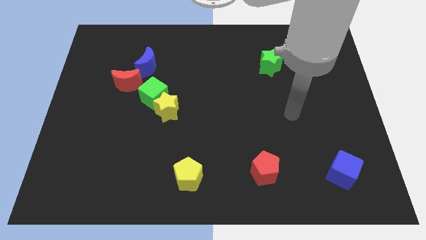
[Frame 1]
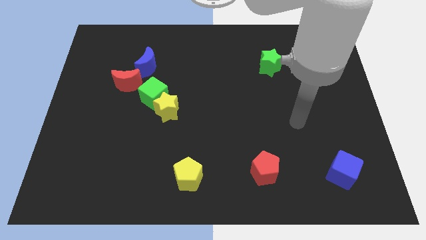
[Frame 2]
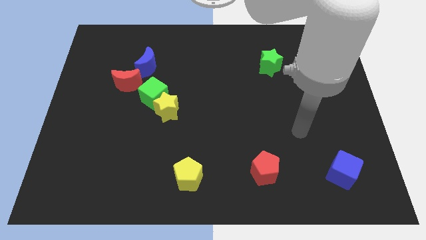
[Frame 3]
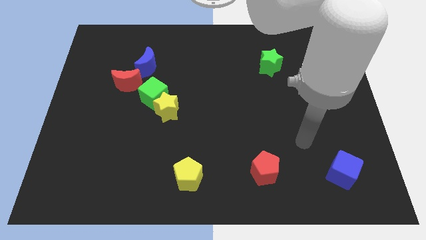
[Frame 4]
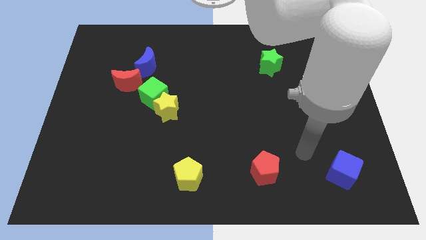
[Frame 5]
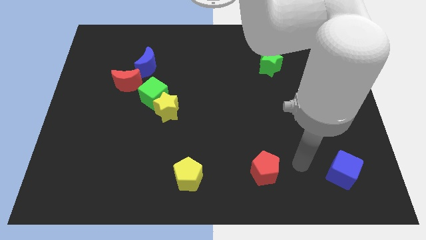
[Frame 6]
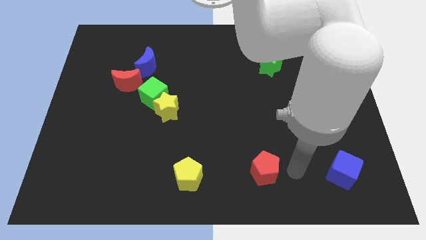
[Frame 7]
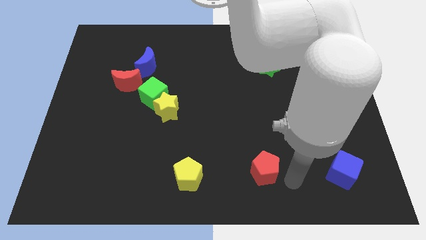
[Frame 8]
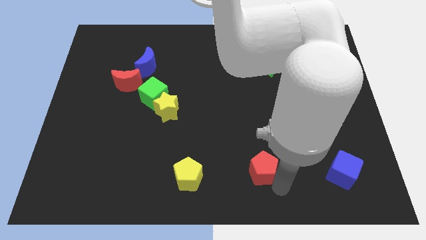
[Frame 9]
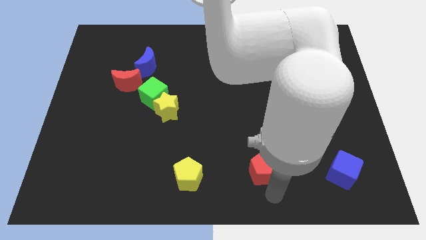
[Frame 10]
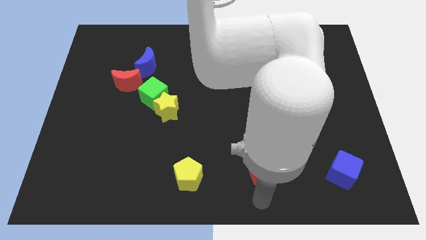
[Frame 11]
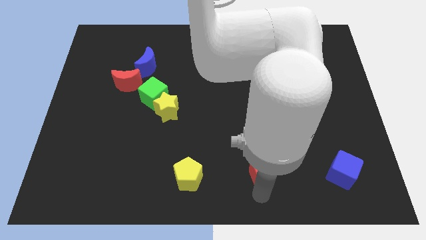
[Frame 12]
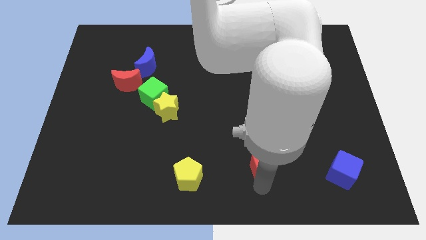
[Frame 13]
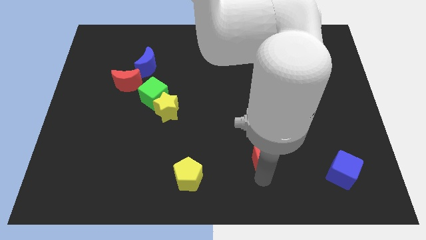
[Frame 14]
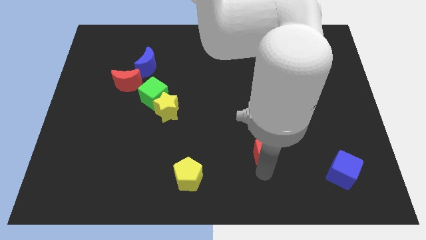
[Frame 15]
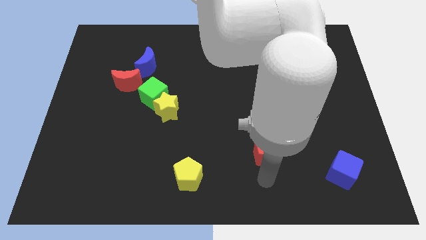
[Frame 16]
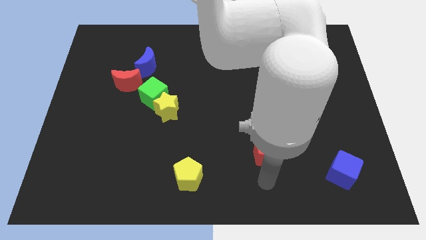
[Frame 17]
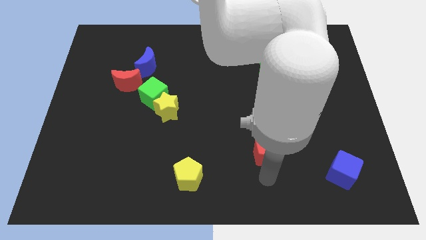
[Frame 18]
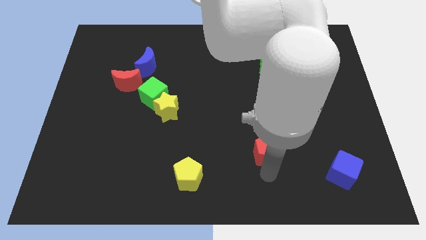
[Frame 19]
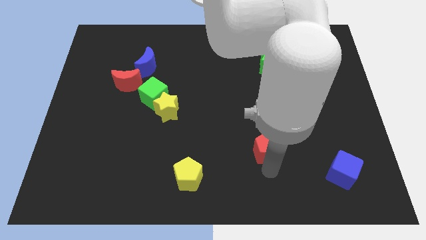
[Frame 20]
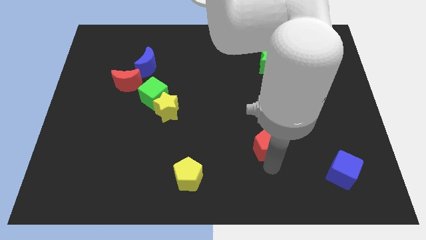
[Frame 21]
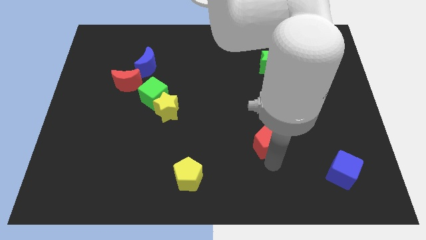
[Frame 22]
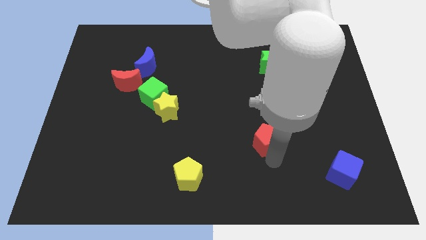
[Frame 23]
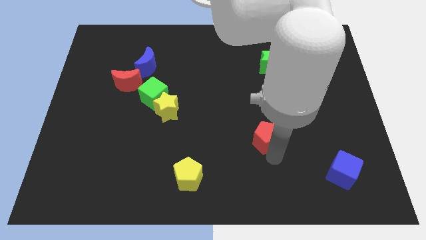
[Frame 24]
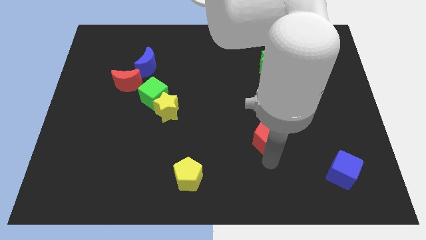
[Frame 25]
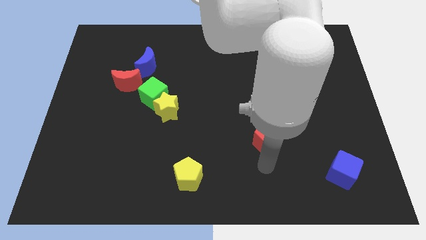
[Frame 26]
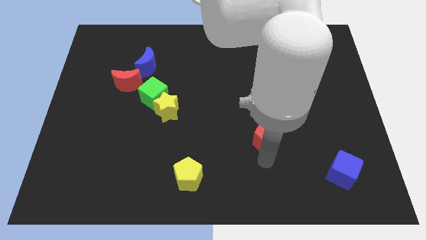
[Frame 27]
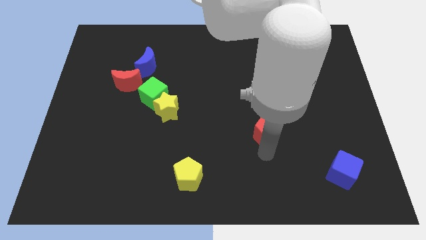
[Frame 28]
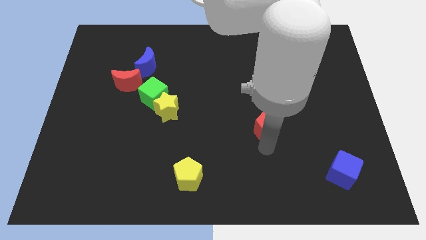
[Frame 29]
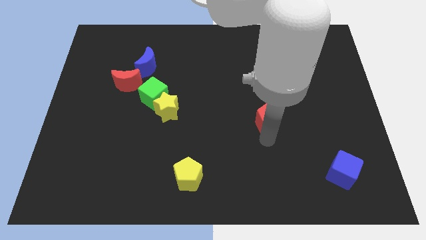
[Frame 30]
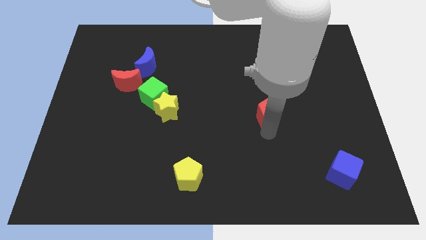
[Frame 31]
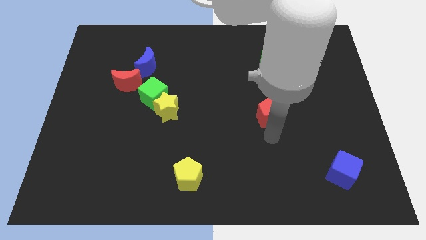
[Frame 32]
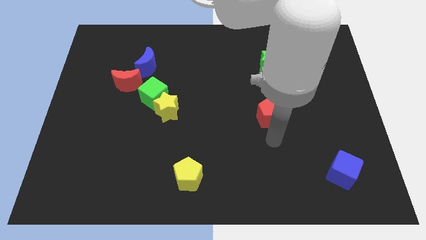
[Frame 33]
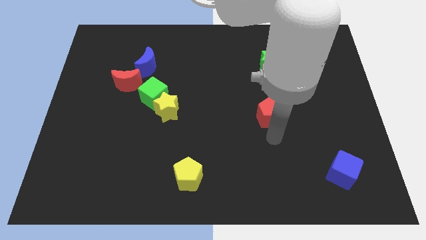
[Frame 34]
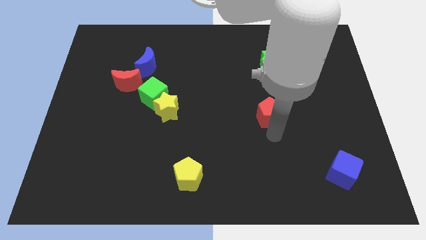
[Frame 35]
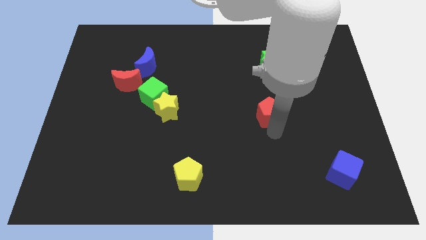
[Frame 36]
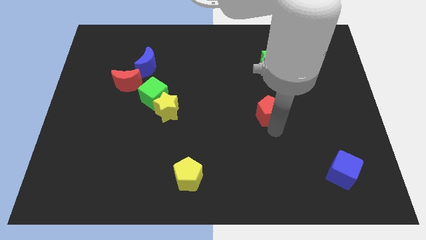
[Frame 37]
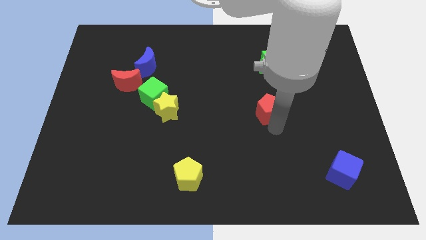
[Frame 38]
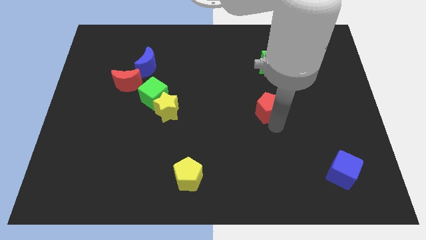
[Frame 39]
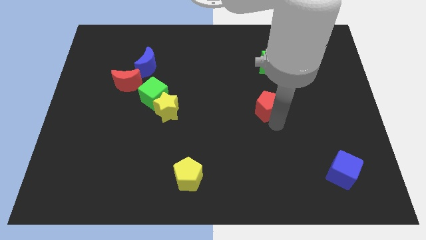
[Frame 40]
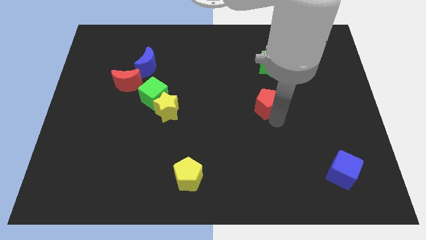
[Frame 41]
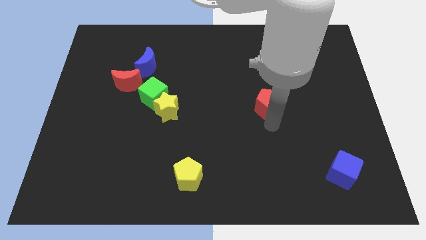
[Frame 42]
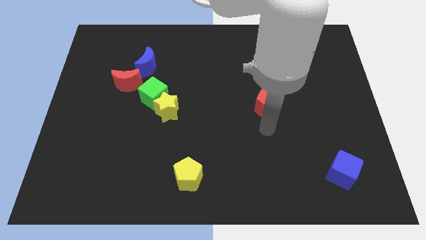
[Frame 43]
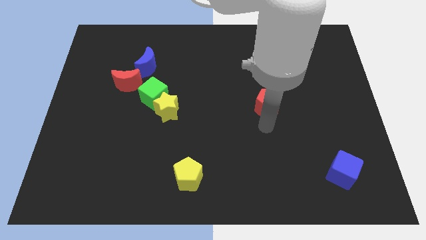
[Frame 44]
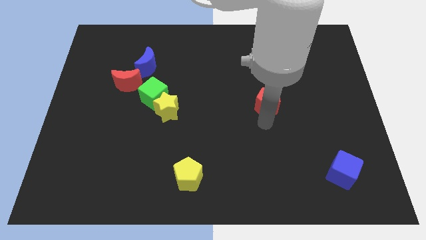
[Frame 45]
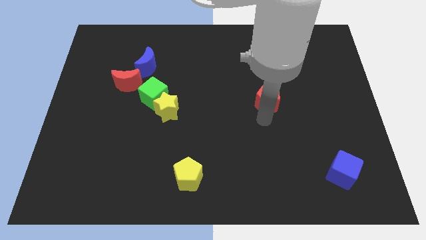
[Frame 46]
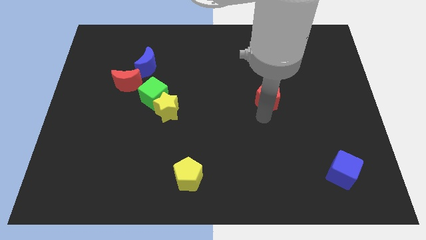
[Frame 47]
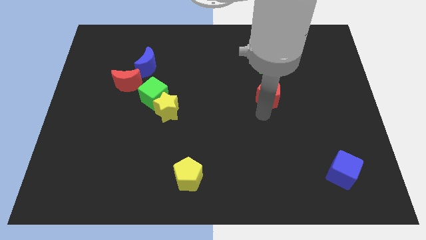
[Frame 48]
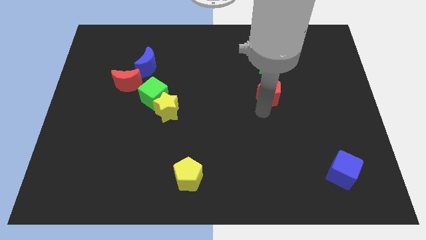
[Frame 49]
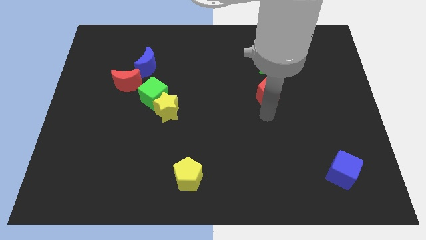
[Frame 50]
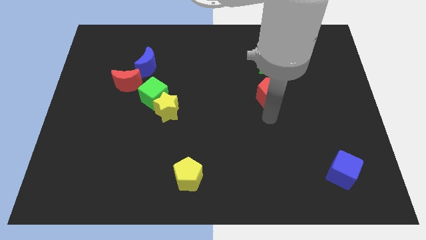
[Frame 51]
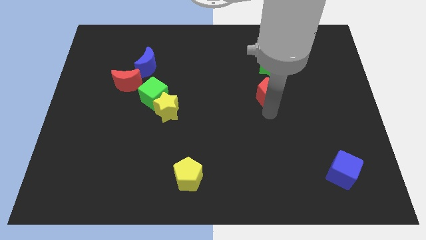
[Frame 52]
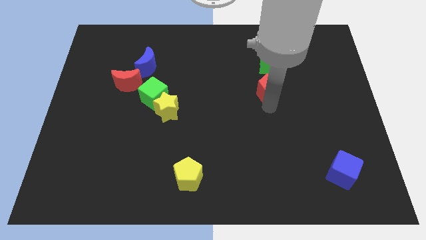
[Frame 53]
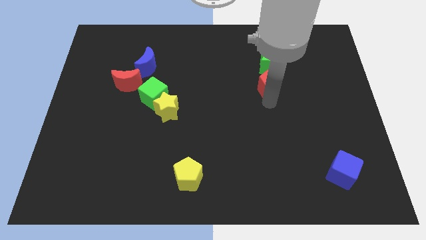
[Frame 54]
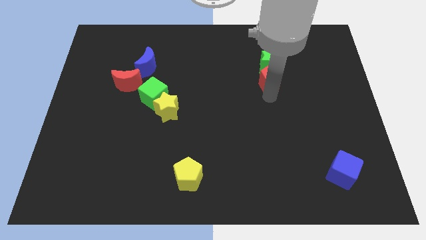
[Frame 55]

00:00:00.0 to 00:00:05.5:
put the red pentagon next to the green star

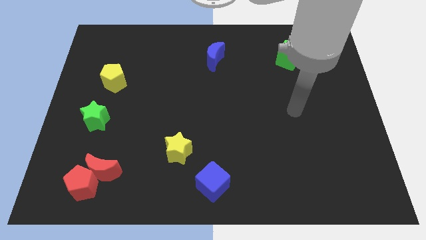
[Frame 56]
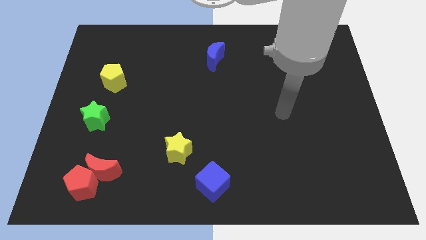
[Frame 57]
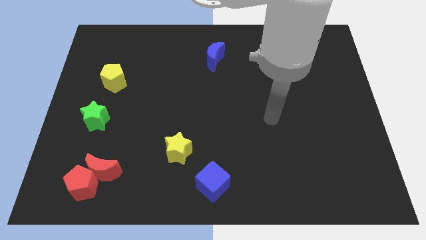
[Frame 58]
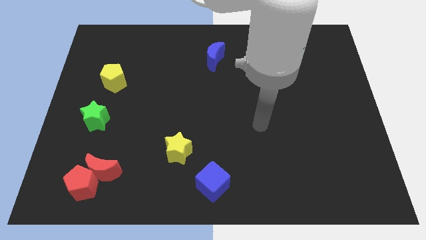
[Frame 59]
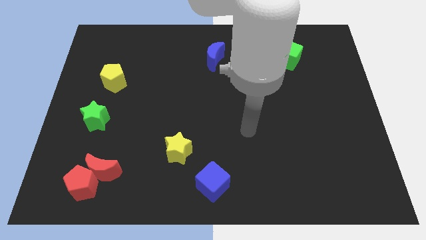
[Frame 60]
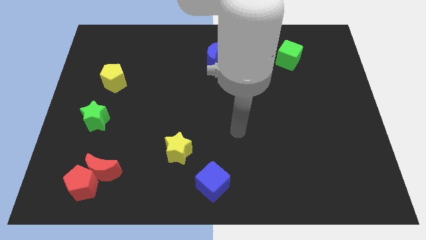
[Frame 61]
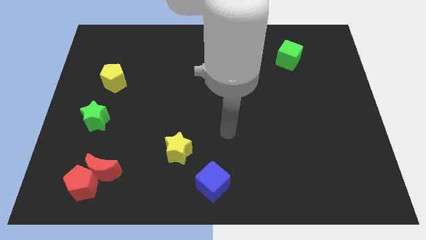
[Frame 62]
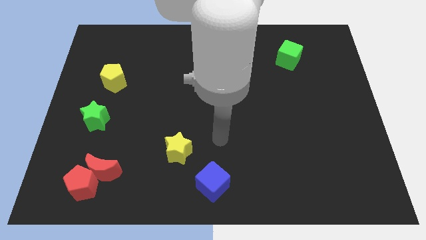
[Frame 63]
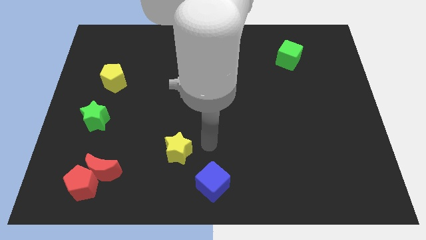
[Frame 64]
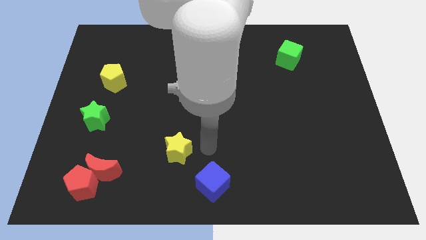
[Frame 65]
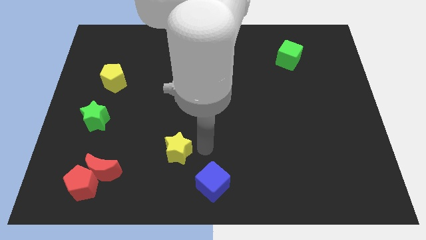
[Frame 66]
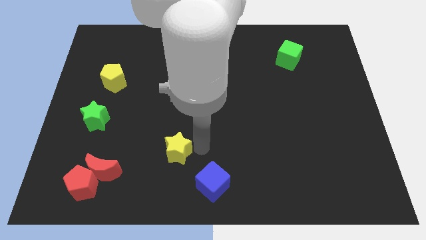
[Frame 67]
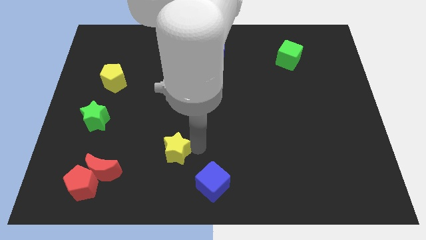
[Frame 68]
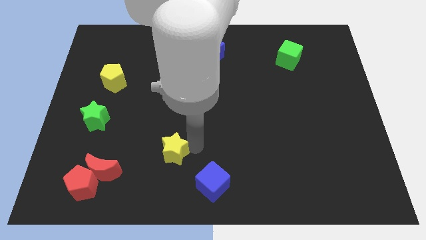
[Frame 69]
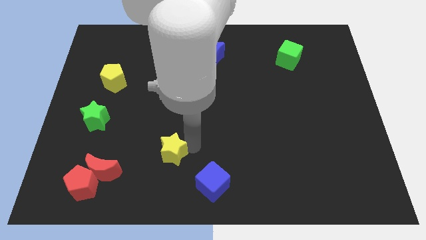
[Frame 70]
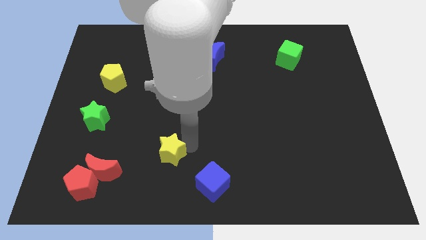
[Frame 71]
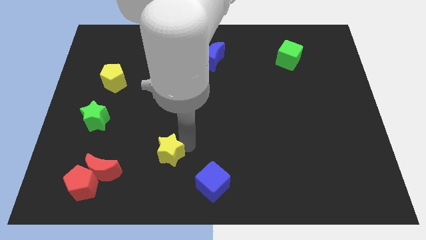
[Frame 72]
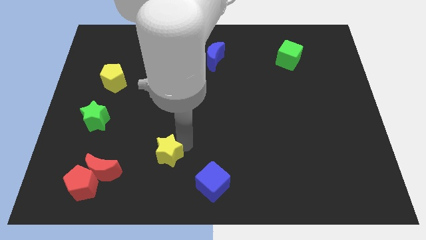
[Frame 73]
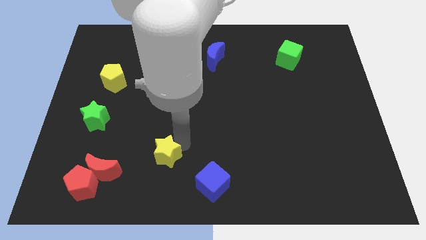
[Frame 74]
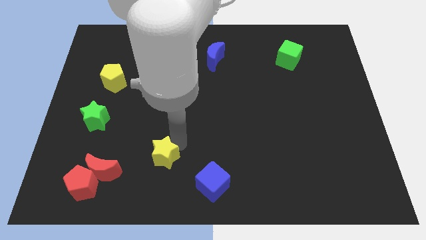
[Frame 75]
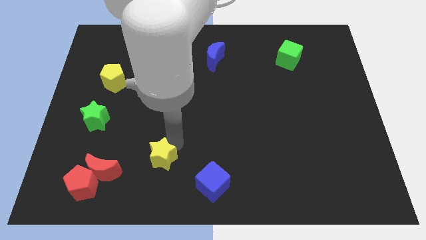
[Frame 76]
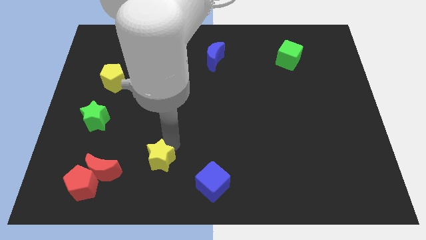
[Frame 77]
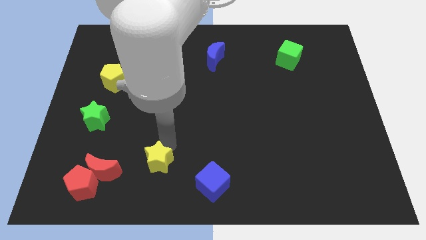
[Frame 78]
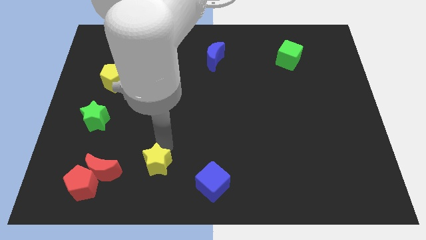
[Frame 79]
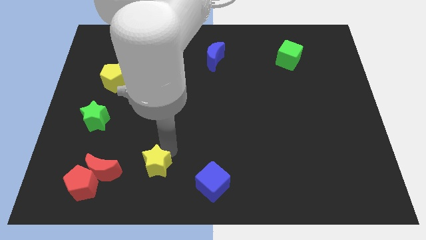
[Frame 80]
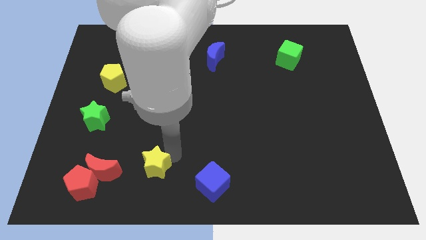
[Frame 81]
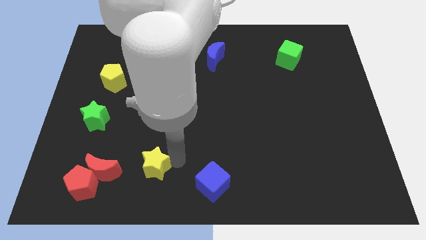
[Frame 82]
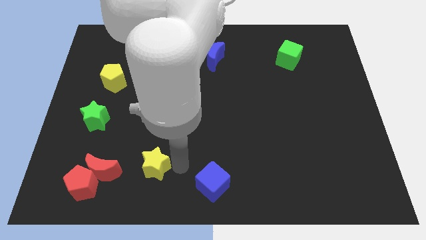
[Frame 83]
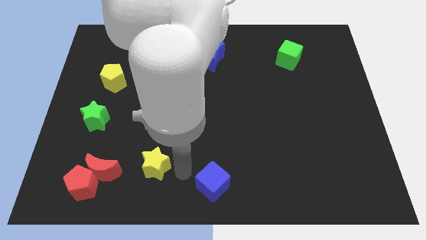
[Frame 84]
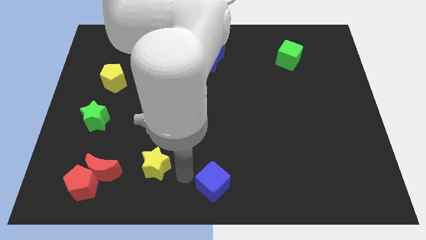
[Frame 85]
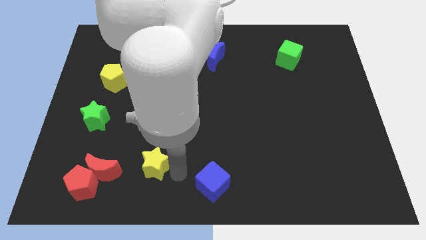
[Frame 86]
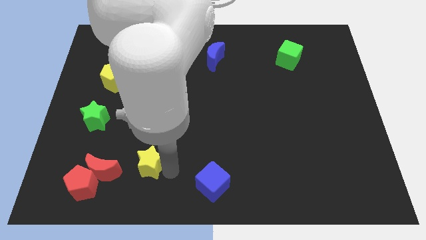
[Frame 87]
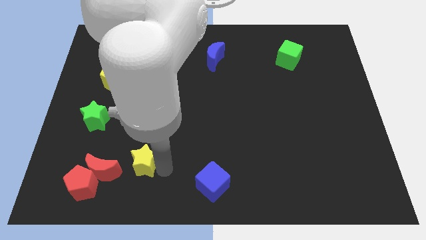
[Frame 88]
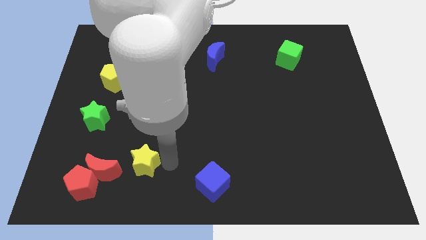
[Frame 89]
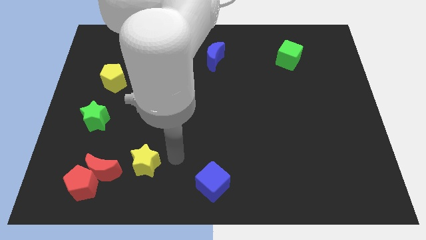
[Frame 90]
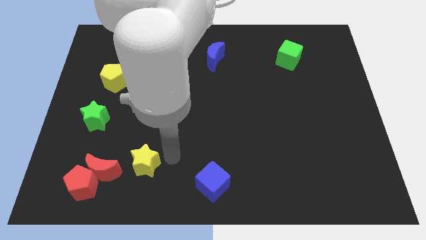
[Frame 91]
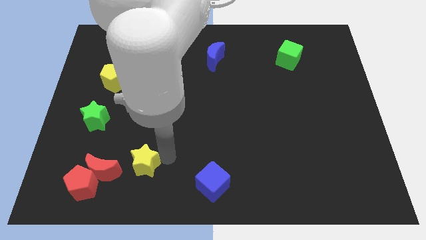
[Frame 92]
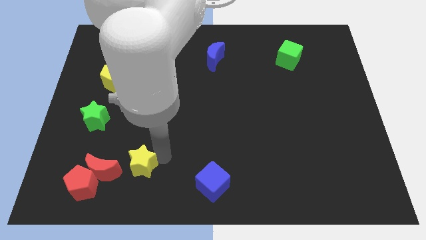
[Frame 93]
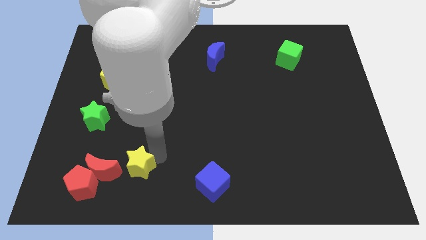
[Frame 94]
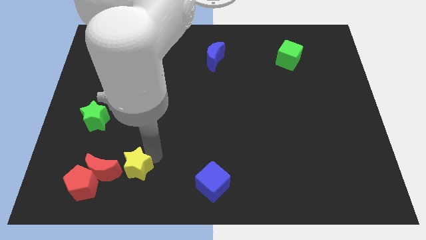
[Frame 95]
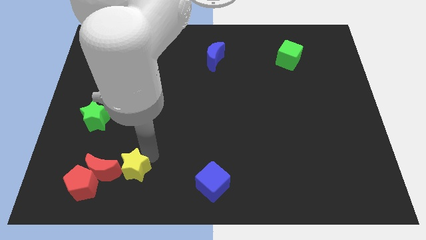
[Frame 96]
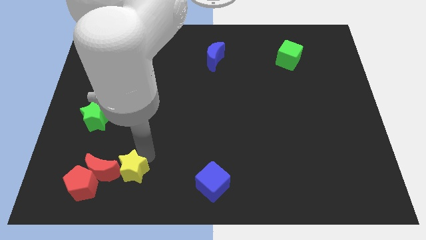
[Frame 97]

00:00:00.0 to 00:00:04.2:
put the yellow star towards the red moon
